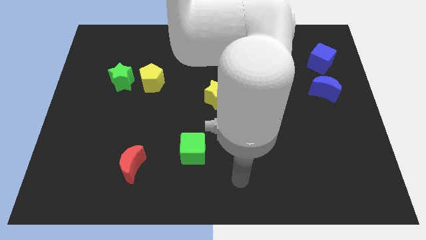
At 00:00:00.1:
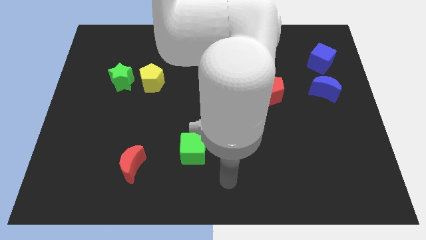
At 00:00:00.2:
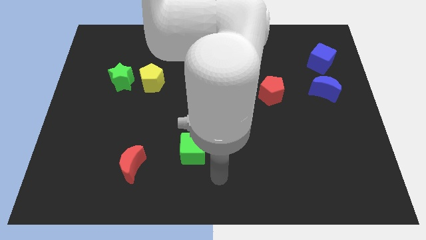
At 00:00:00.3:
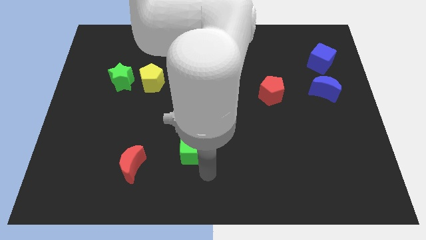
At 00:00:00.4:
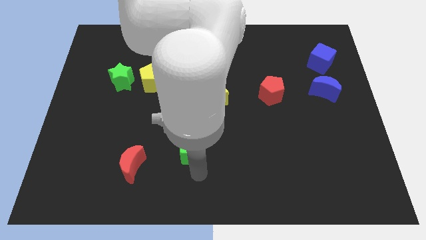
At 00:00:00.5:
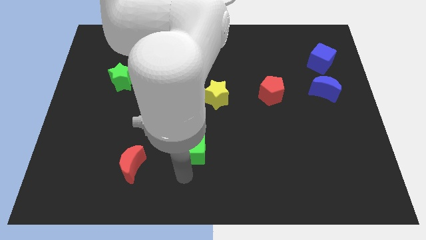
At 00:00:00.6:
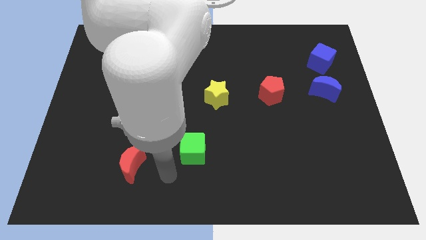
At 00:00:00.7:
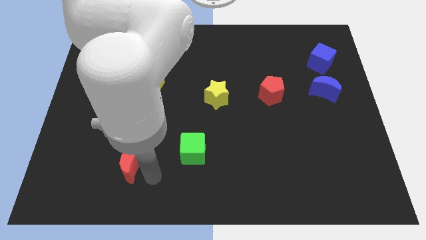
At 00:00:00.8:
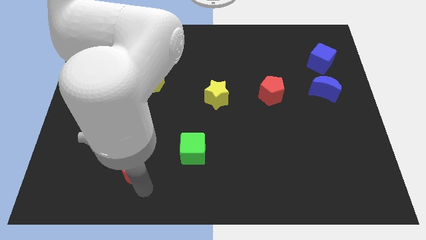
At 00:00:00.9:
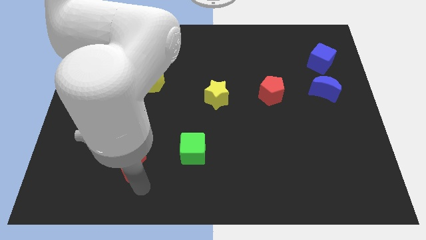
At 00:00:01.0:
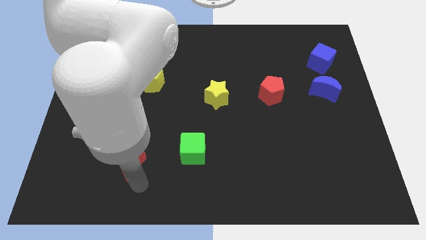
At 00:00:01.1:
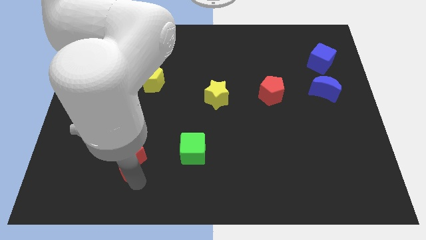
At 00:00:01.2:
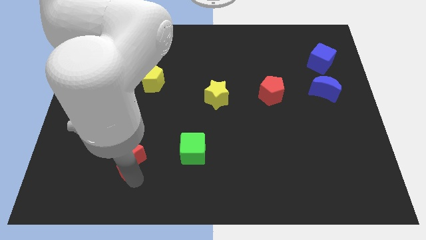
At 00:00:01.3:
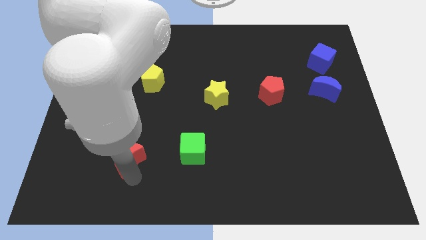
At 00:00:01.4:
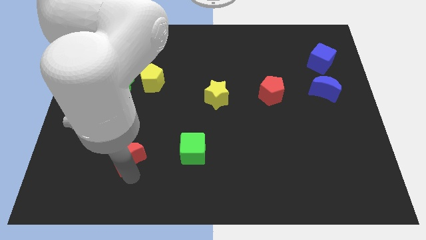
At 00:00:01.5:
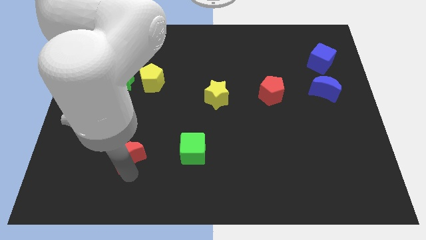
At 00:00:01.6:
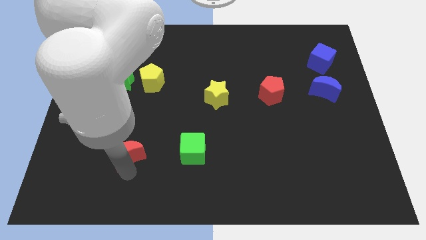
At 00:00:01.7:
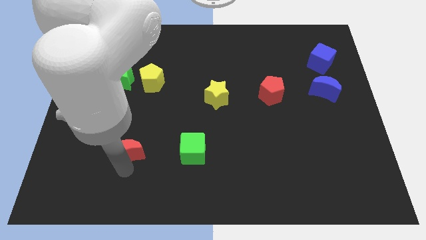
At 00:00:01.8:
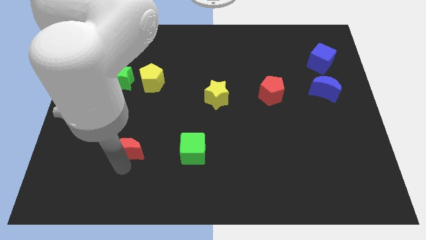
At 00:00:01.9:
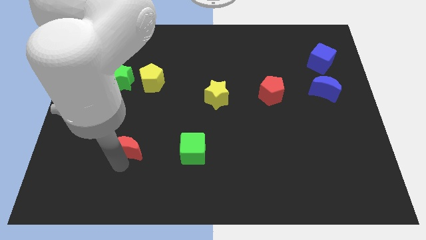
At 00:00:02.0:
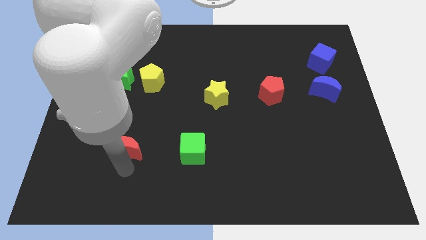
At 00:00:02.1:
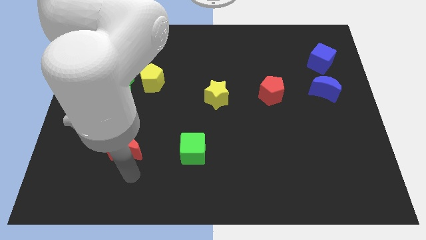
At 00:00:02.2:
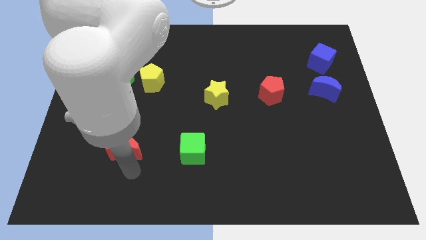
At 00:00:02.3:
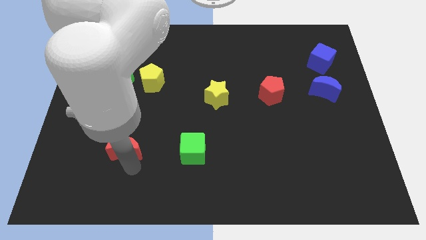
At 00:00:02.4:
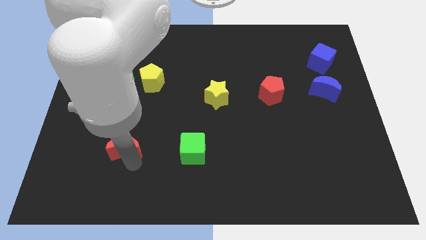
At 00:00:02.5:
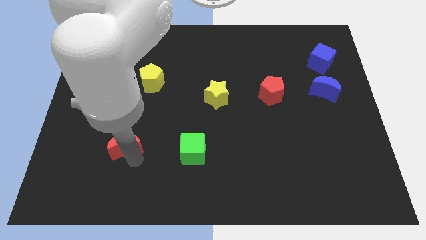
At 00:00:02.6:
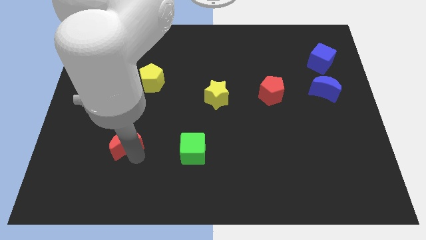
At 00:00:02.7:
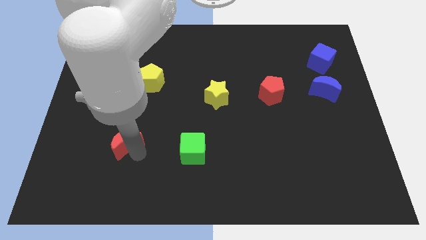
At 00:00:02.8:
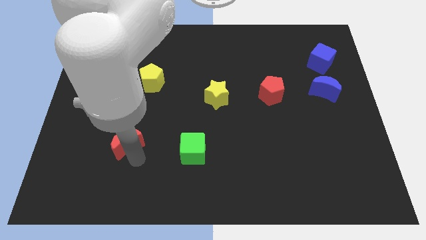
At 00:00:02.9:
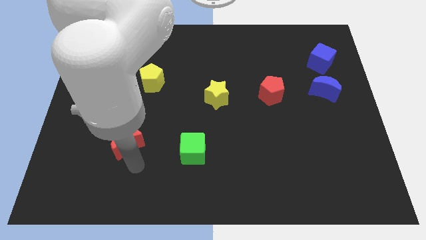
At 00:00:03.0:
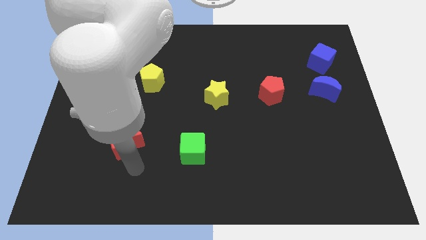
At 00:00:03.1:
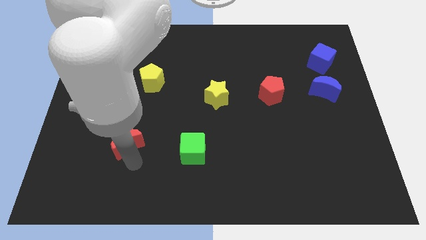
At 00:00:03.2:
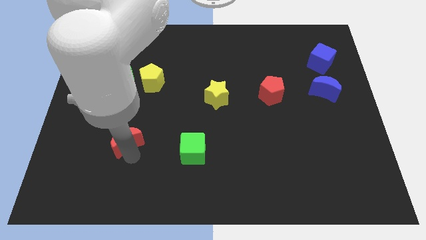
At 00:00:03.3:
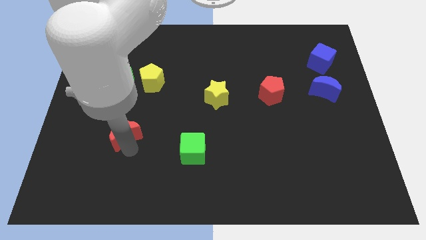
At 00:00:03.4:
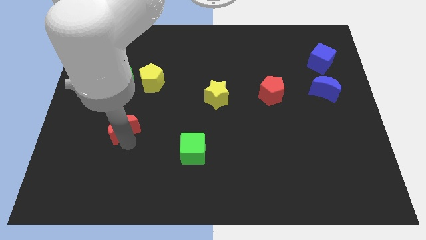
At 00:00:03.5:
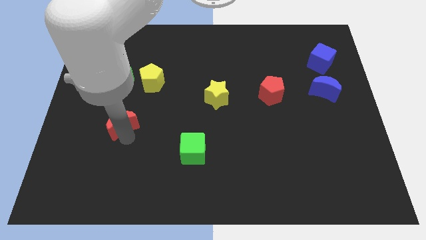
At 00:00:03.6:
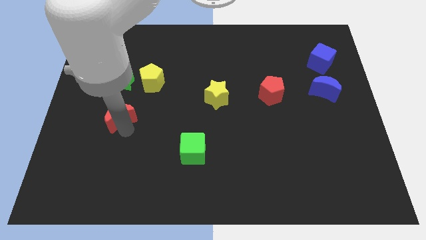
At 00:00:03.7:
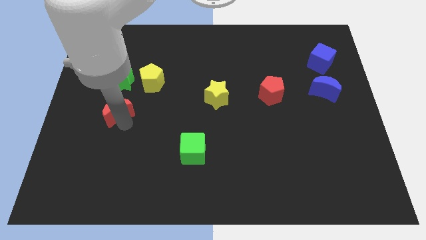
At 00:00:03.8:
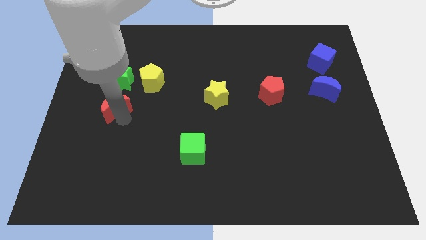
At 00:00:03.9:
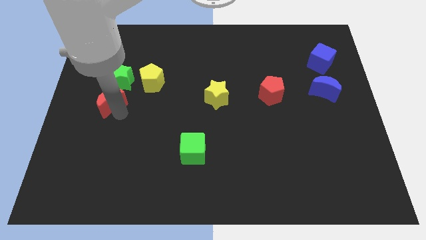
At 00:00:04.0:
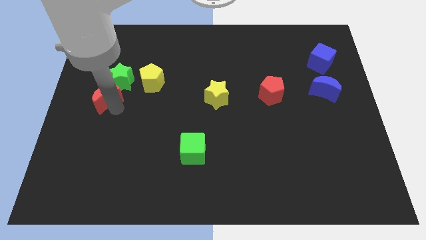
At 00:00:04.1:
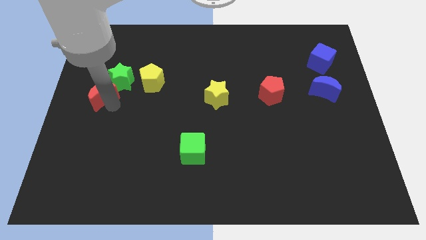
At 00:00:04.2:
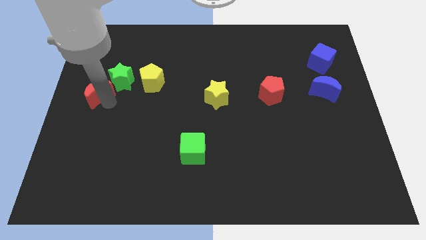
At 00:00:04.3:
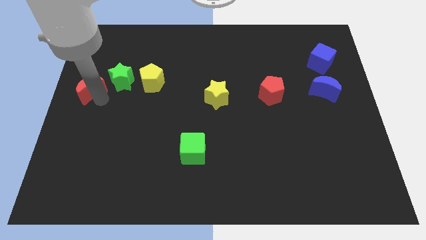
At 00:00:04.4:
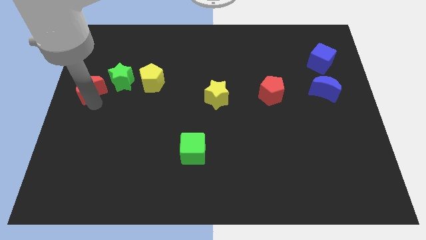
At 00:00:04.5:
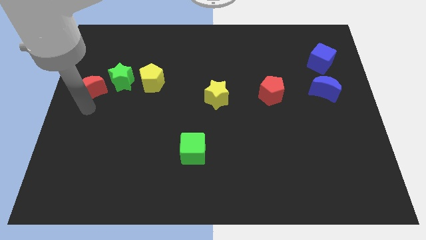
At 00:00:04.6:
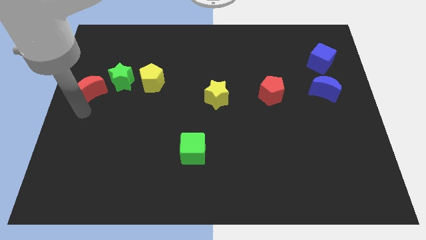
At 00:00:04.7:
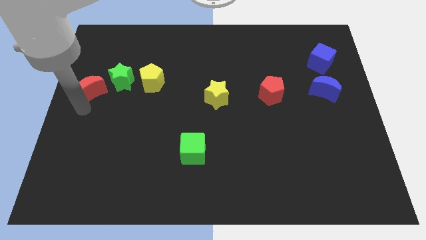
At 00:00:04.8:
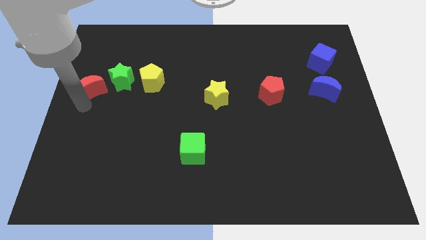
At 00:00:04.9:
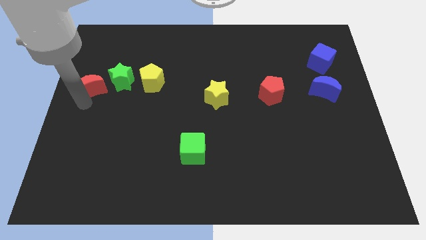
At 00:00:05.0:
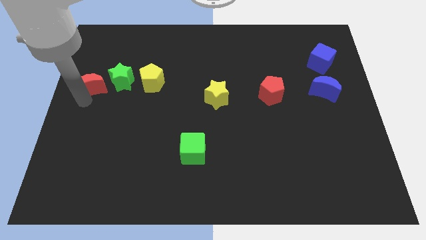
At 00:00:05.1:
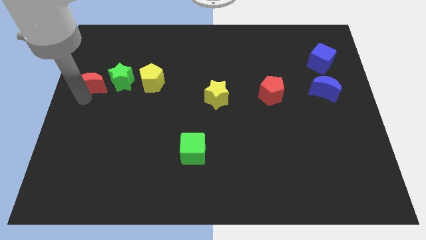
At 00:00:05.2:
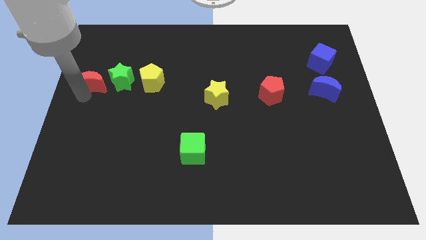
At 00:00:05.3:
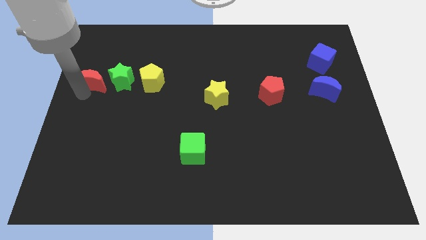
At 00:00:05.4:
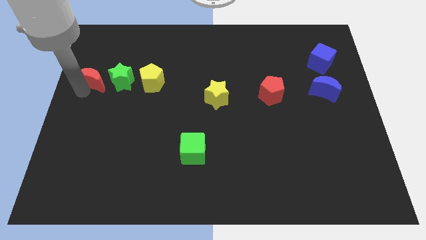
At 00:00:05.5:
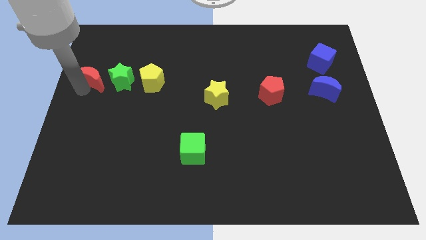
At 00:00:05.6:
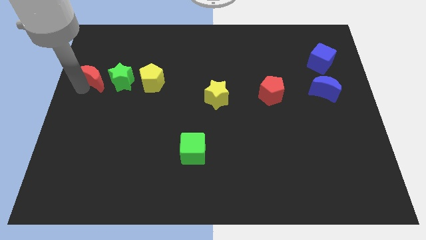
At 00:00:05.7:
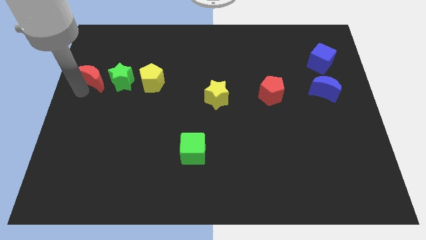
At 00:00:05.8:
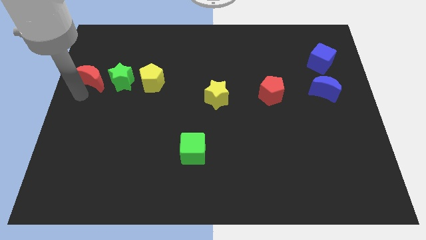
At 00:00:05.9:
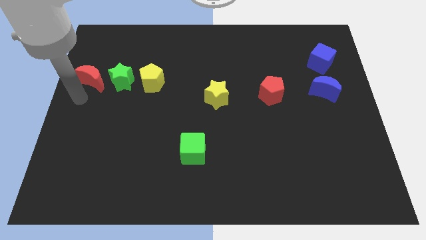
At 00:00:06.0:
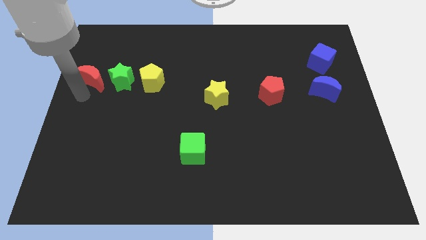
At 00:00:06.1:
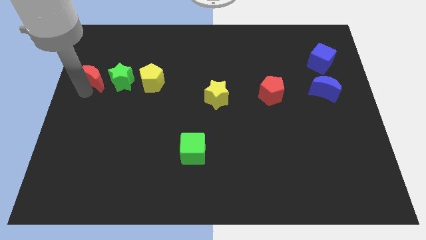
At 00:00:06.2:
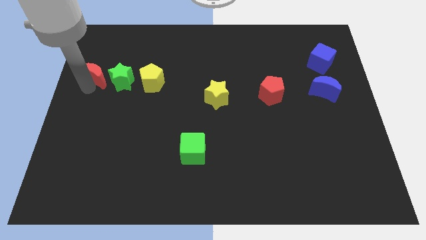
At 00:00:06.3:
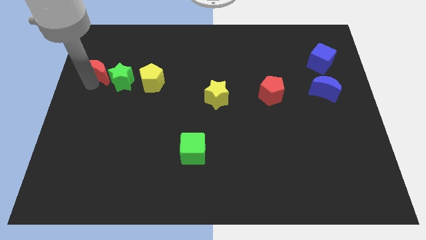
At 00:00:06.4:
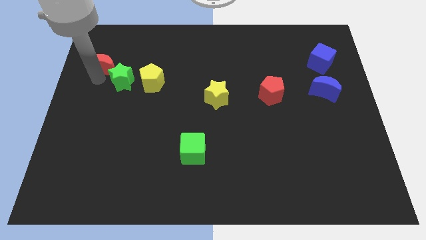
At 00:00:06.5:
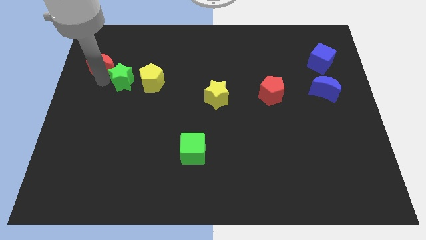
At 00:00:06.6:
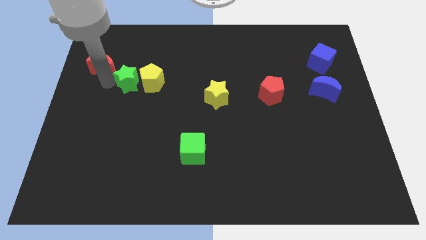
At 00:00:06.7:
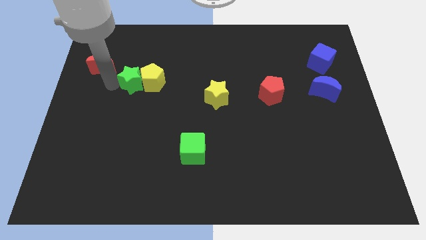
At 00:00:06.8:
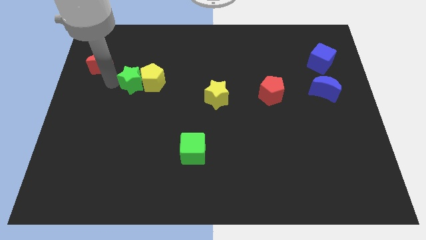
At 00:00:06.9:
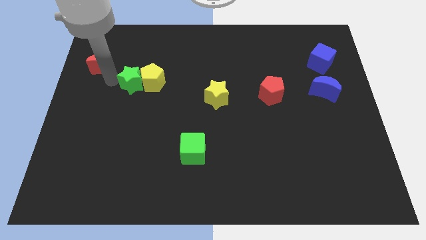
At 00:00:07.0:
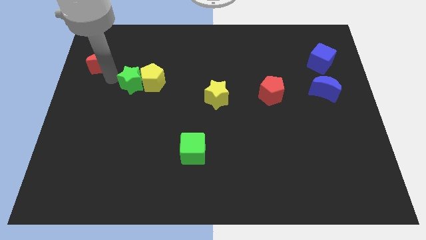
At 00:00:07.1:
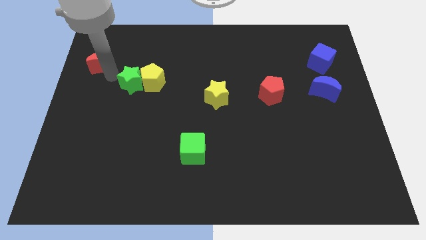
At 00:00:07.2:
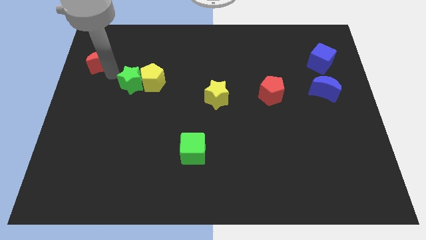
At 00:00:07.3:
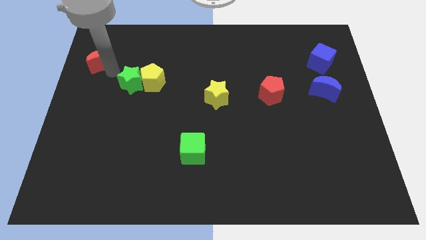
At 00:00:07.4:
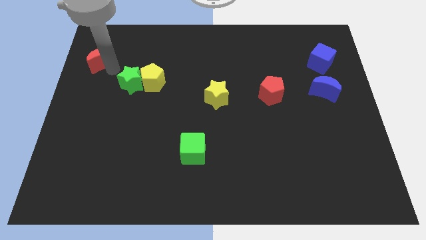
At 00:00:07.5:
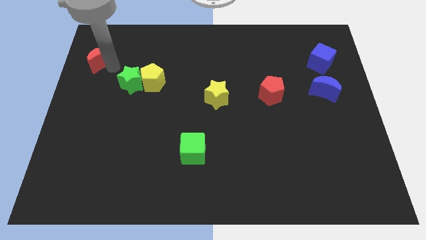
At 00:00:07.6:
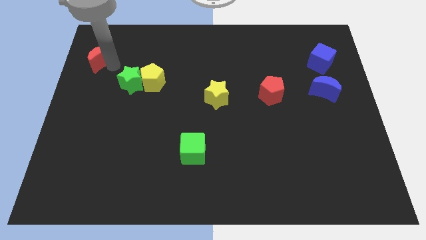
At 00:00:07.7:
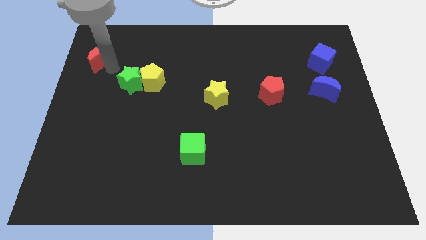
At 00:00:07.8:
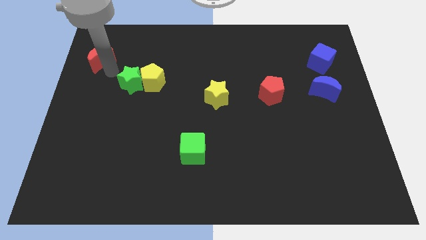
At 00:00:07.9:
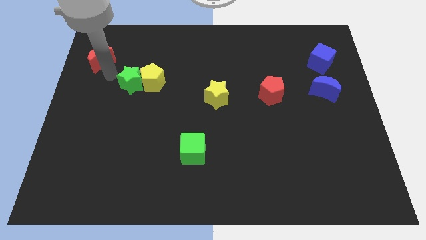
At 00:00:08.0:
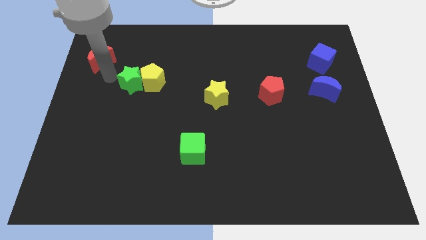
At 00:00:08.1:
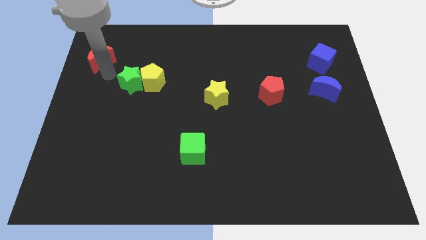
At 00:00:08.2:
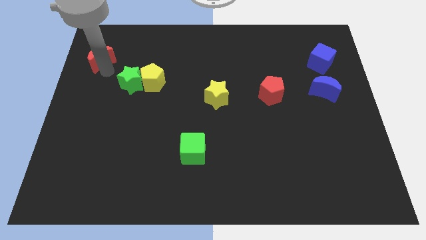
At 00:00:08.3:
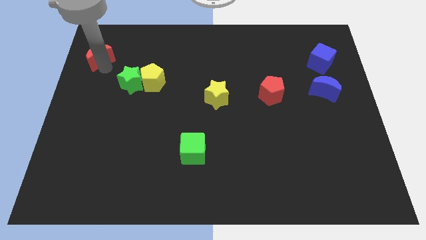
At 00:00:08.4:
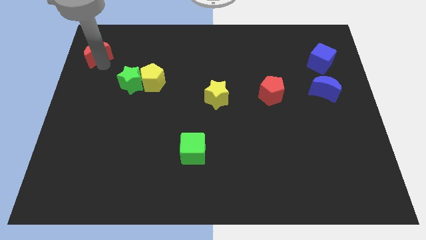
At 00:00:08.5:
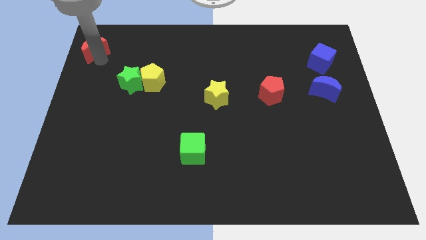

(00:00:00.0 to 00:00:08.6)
push the red moon to the top left corner
